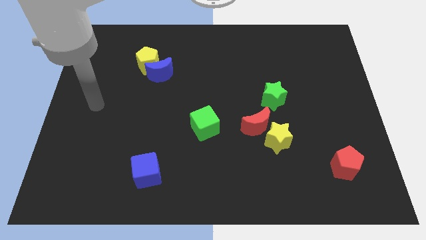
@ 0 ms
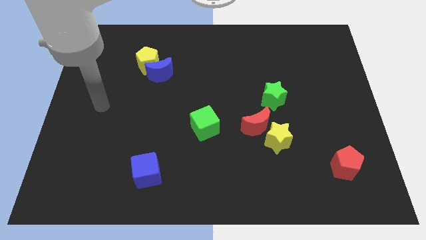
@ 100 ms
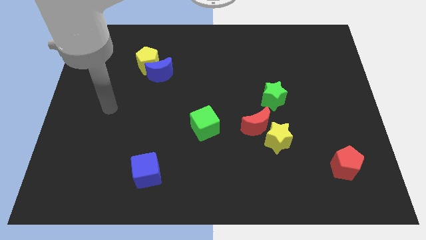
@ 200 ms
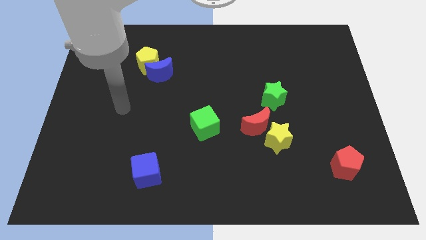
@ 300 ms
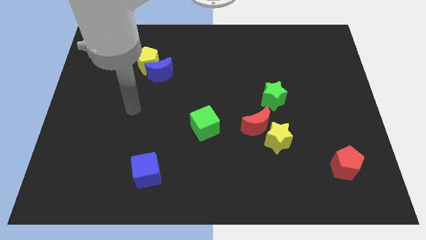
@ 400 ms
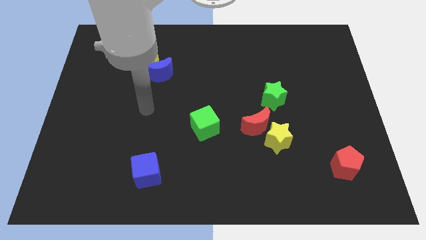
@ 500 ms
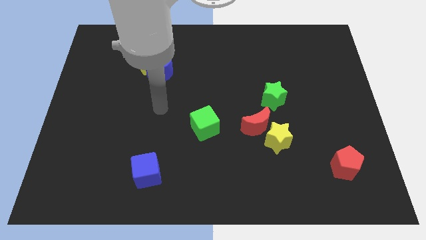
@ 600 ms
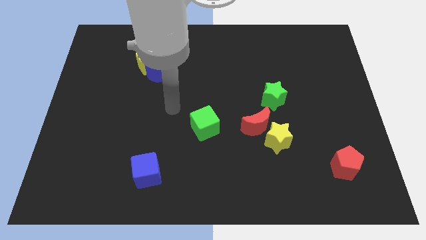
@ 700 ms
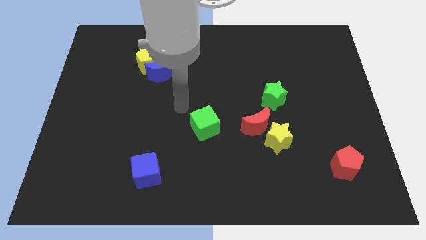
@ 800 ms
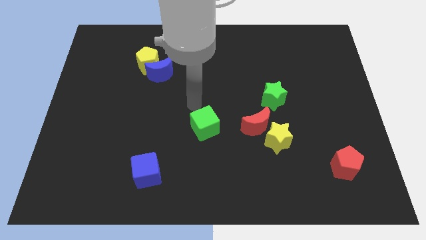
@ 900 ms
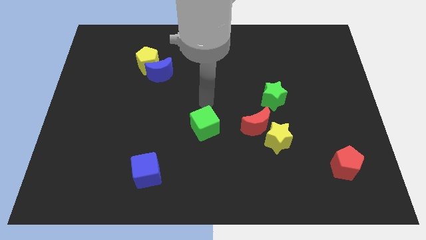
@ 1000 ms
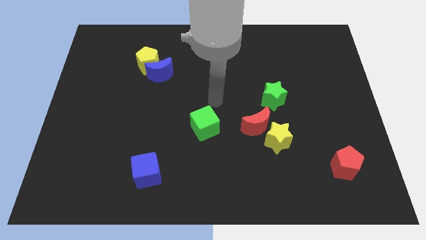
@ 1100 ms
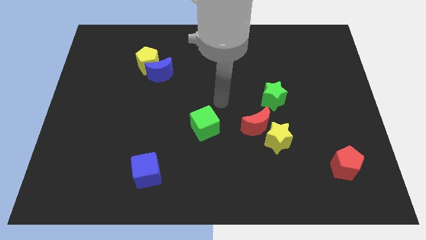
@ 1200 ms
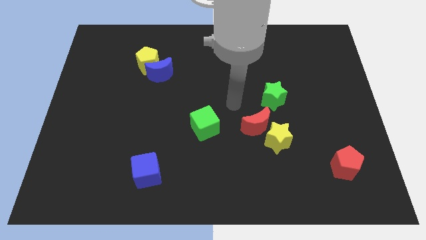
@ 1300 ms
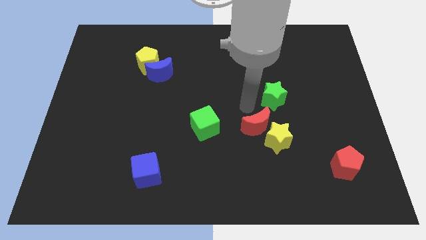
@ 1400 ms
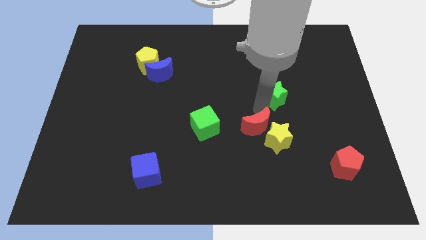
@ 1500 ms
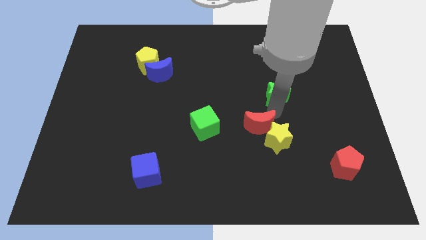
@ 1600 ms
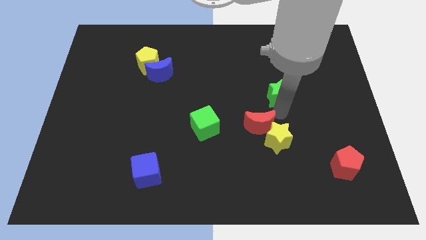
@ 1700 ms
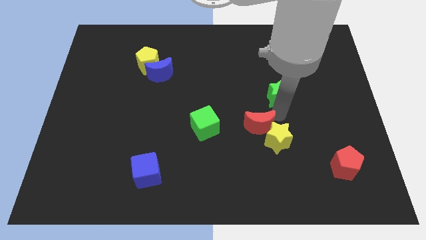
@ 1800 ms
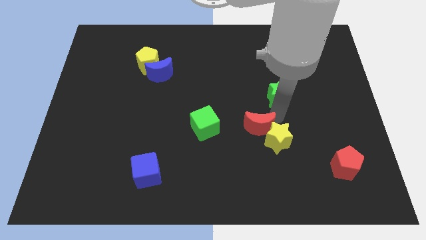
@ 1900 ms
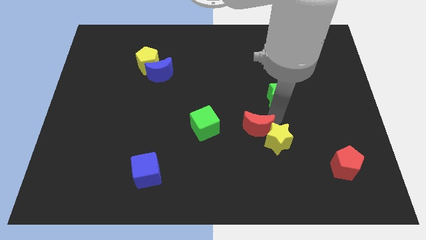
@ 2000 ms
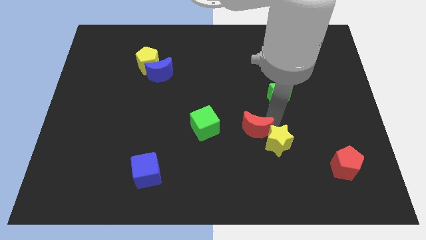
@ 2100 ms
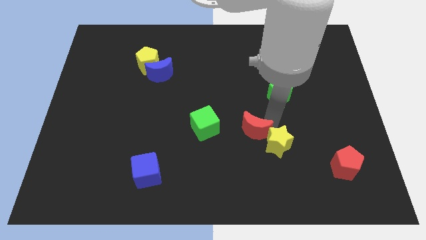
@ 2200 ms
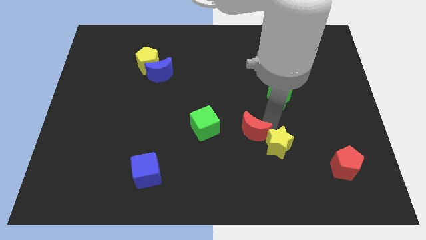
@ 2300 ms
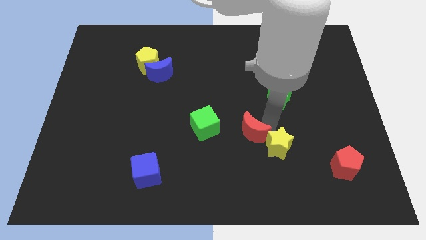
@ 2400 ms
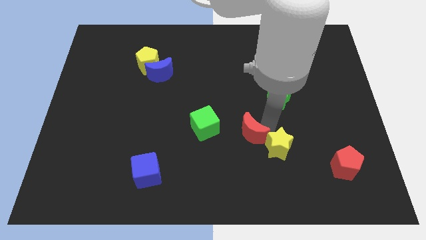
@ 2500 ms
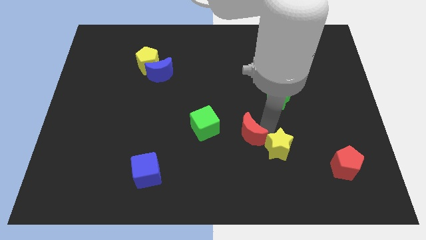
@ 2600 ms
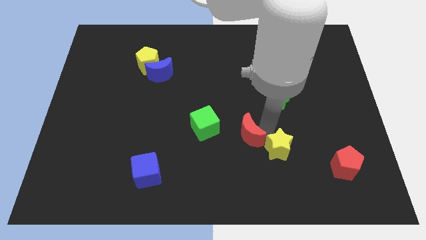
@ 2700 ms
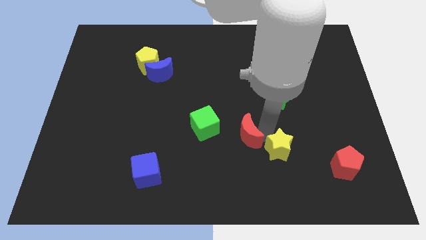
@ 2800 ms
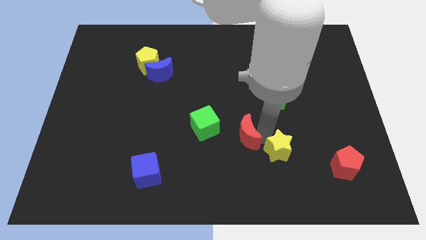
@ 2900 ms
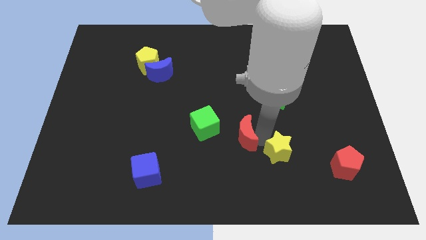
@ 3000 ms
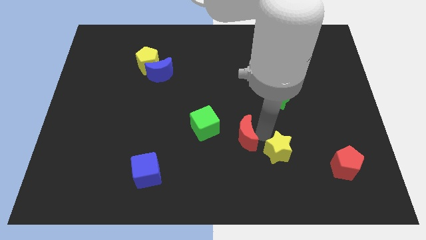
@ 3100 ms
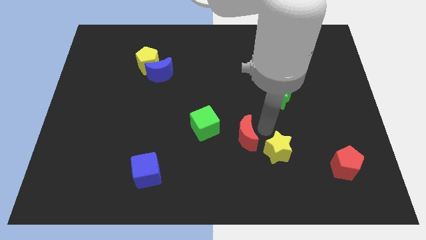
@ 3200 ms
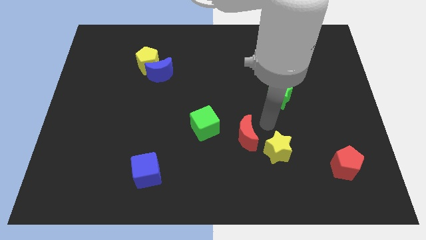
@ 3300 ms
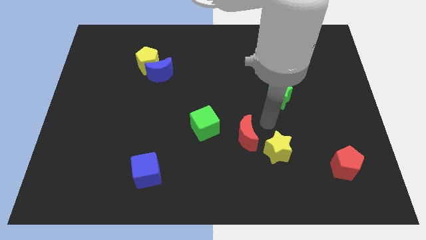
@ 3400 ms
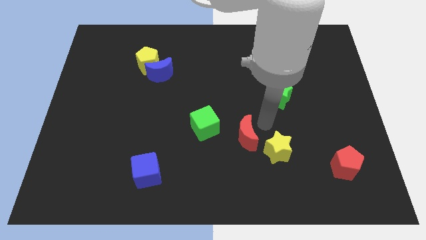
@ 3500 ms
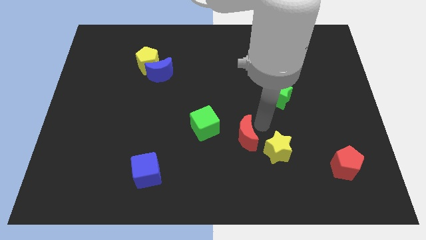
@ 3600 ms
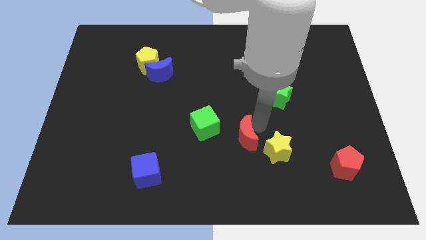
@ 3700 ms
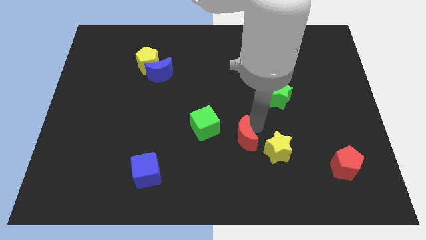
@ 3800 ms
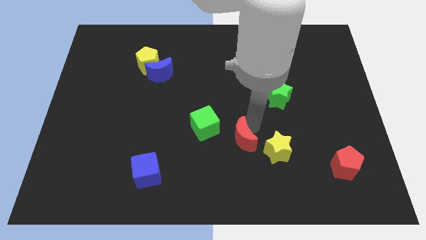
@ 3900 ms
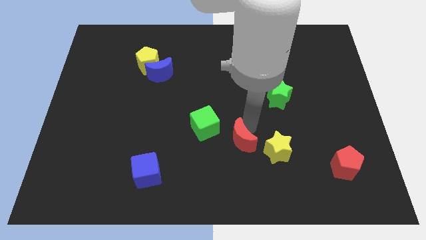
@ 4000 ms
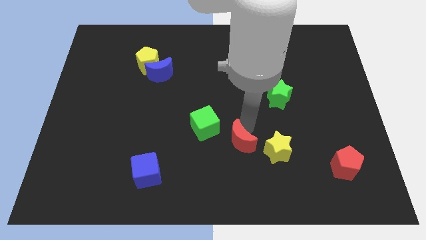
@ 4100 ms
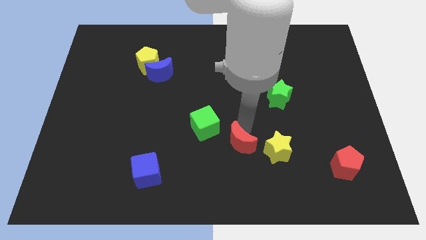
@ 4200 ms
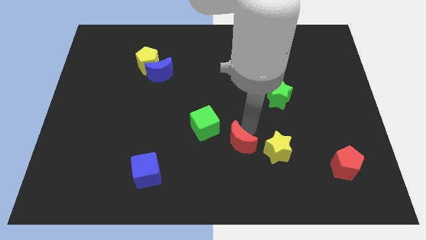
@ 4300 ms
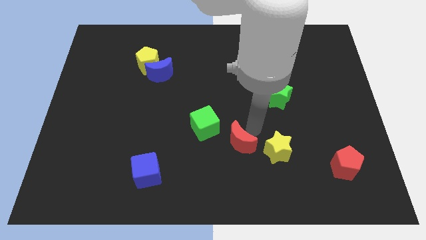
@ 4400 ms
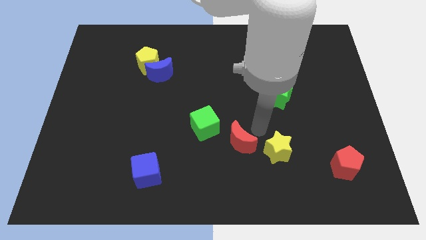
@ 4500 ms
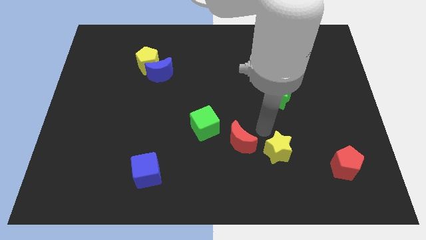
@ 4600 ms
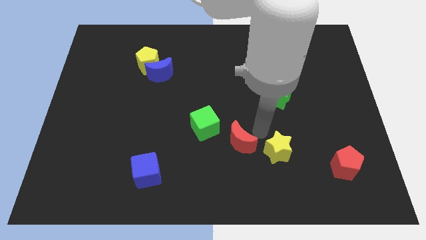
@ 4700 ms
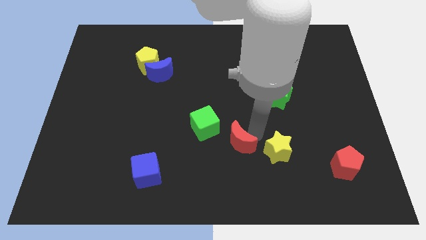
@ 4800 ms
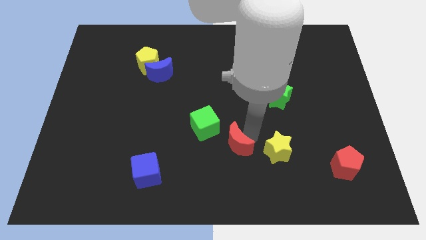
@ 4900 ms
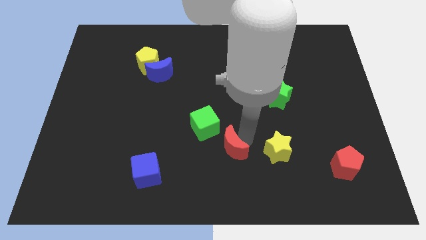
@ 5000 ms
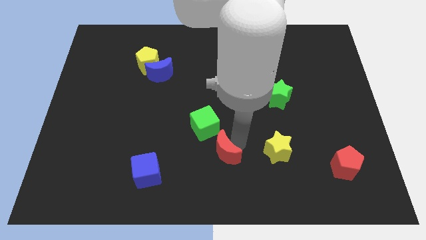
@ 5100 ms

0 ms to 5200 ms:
move the red moon below the green cube

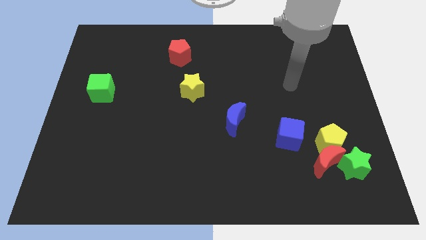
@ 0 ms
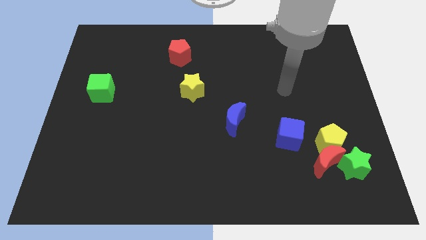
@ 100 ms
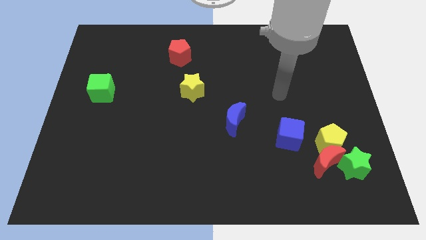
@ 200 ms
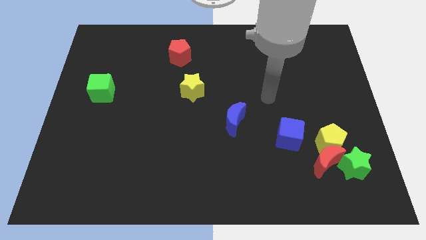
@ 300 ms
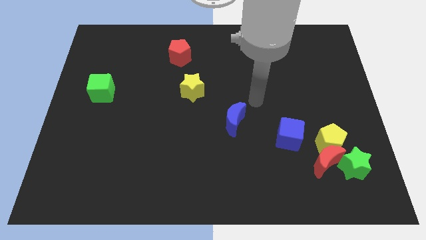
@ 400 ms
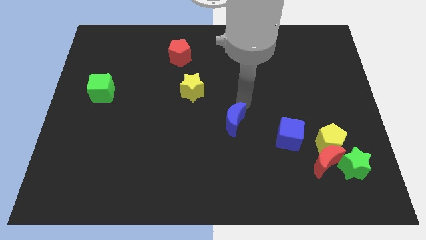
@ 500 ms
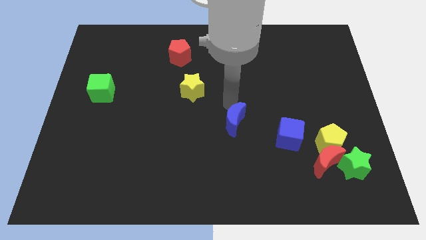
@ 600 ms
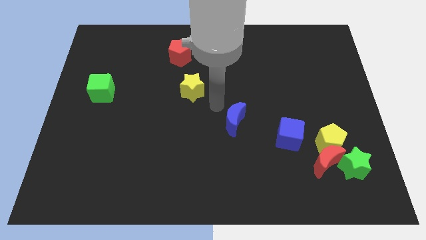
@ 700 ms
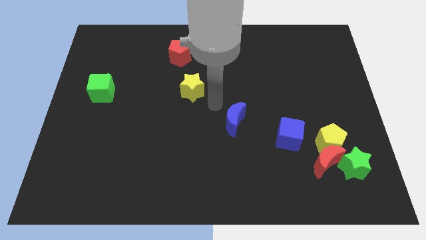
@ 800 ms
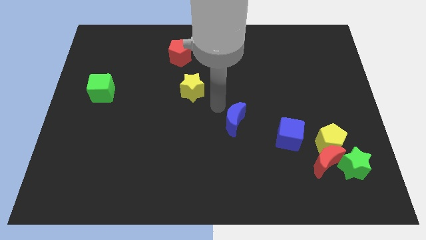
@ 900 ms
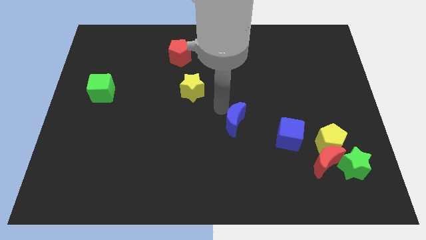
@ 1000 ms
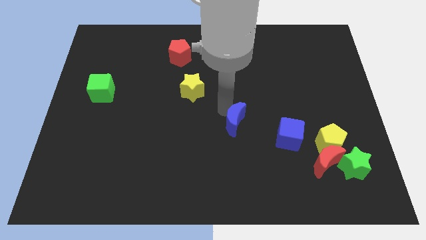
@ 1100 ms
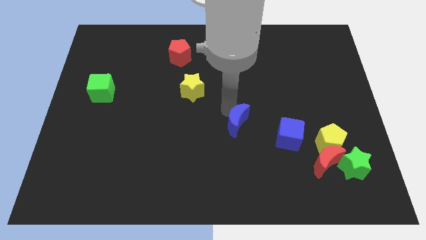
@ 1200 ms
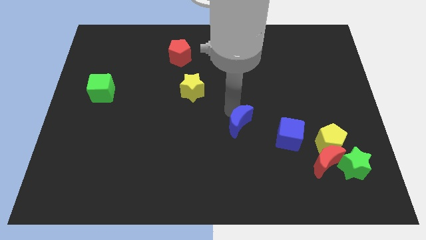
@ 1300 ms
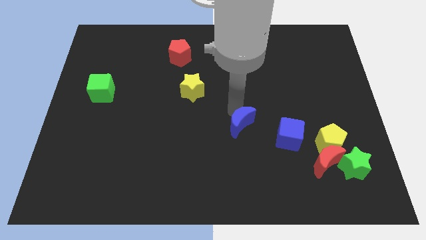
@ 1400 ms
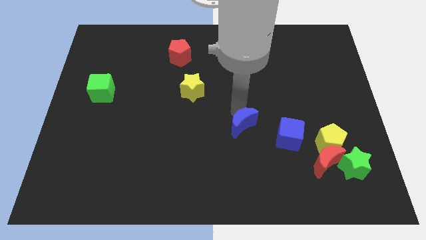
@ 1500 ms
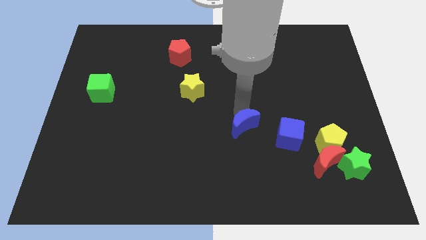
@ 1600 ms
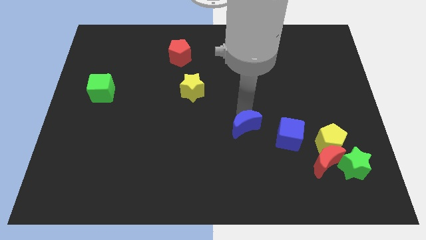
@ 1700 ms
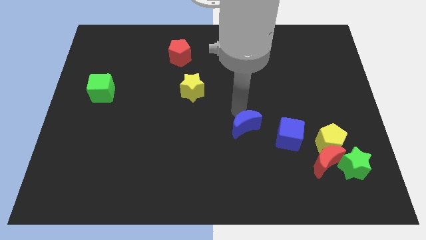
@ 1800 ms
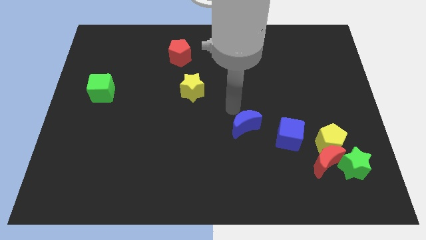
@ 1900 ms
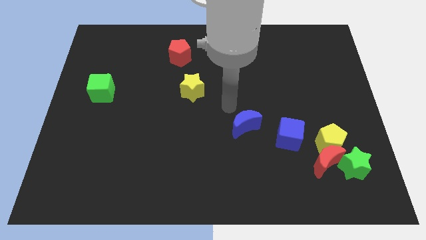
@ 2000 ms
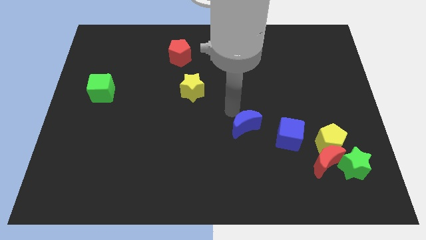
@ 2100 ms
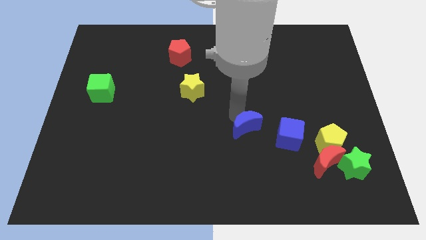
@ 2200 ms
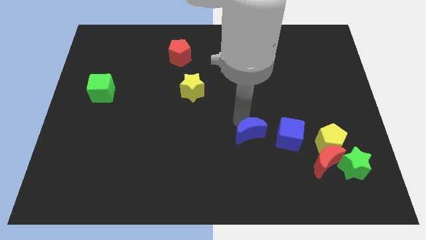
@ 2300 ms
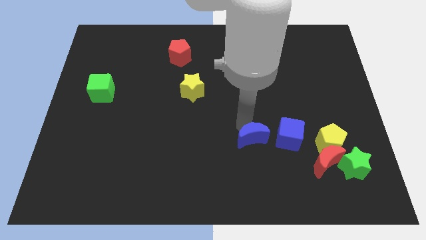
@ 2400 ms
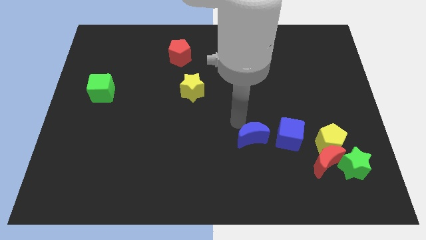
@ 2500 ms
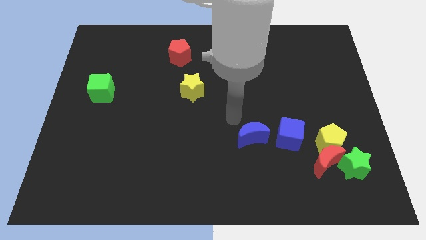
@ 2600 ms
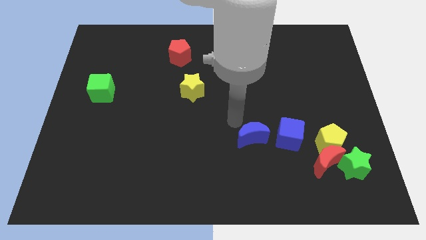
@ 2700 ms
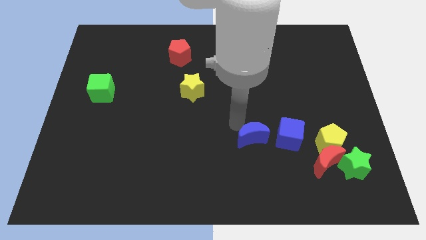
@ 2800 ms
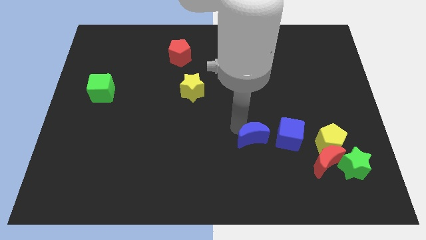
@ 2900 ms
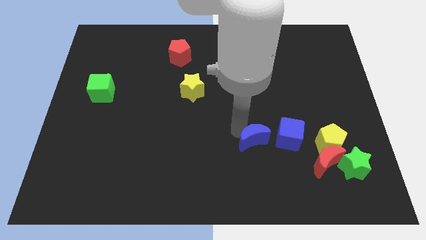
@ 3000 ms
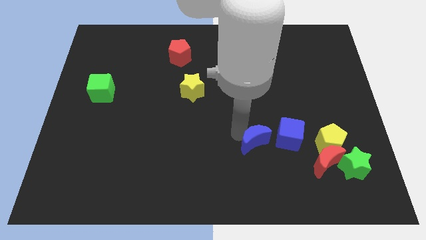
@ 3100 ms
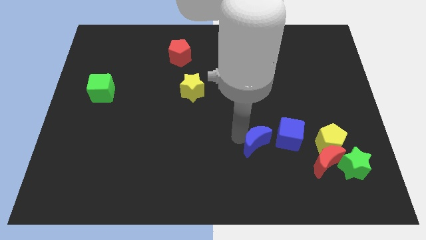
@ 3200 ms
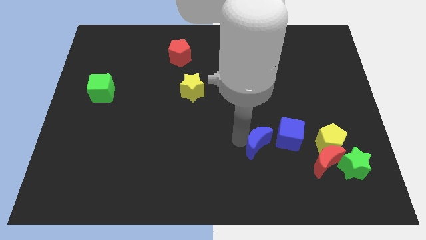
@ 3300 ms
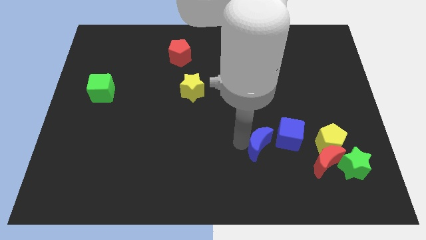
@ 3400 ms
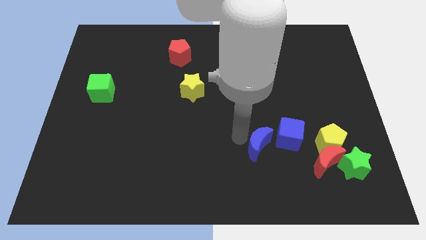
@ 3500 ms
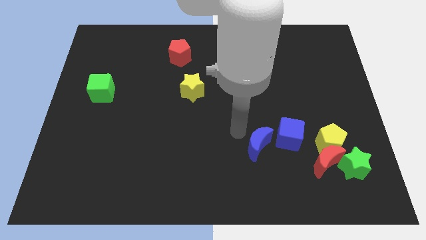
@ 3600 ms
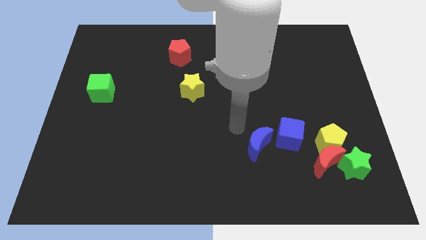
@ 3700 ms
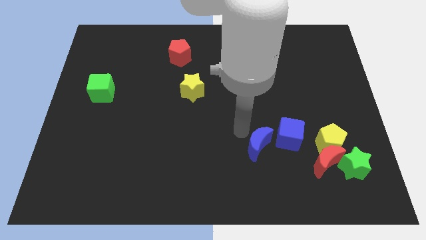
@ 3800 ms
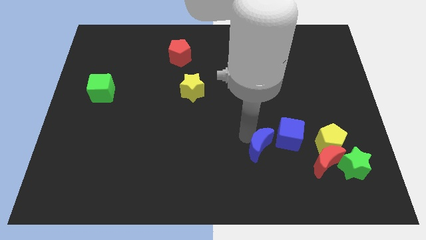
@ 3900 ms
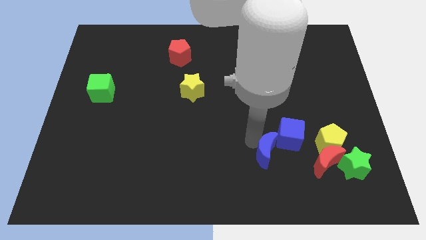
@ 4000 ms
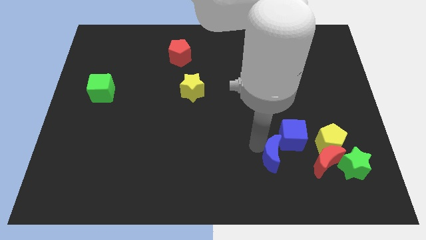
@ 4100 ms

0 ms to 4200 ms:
put the blue moon to the bottom of the blue cube
